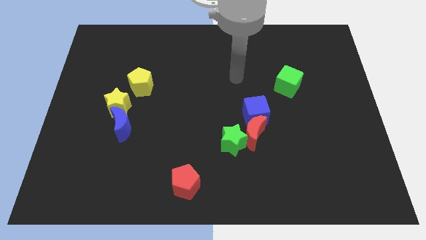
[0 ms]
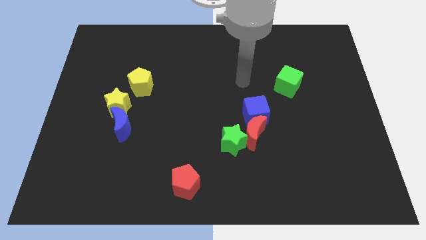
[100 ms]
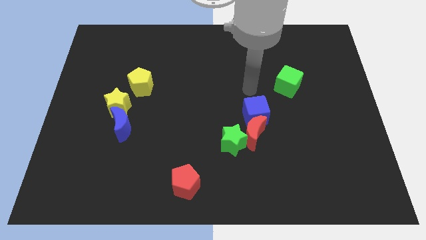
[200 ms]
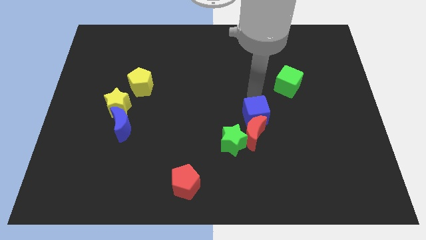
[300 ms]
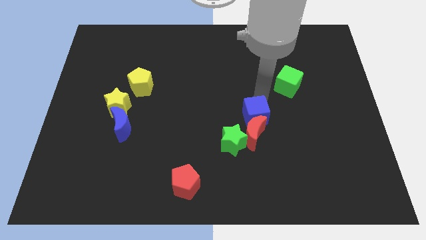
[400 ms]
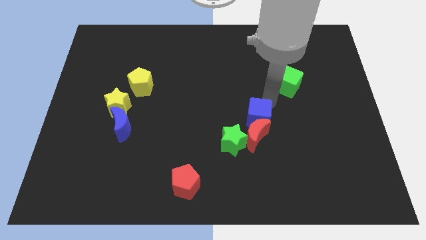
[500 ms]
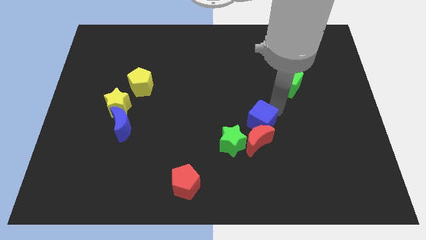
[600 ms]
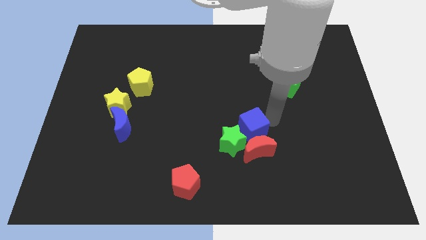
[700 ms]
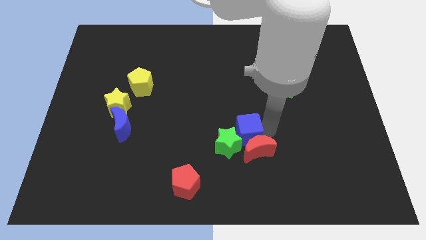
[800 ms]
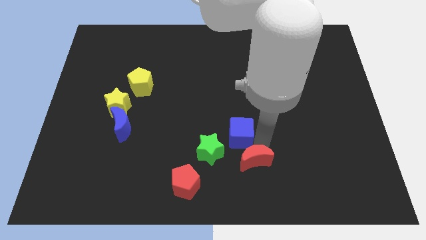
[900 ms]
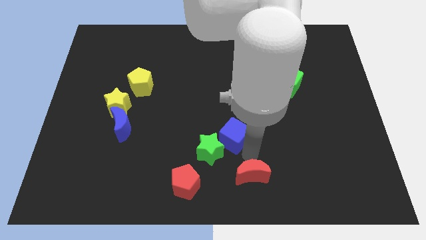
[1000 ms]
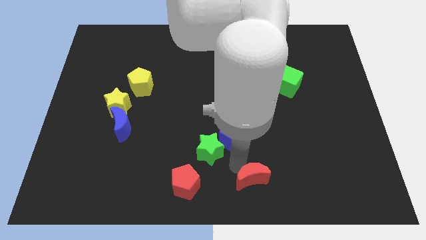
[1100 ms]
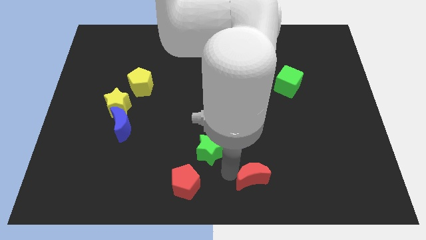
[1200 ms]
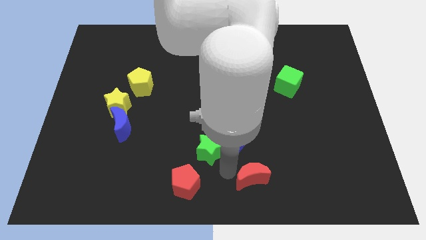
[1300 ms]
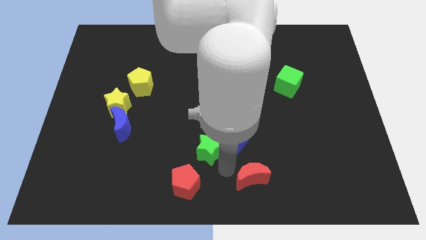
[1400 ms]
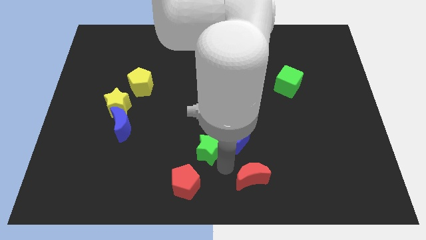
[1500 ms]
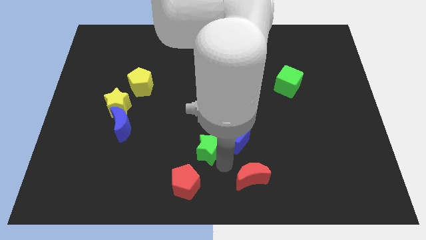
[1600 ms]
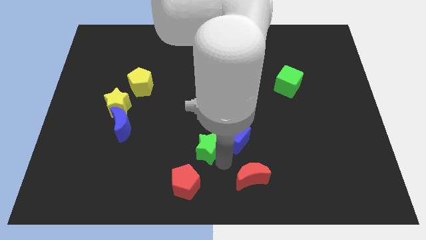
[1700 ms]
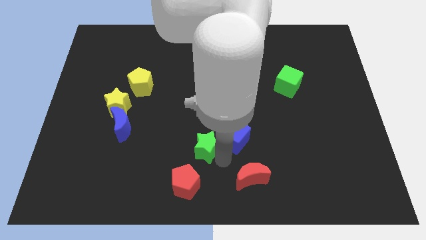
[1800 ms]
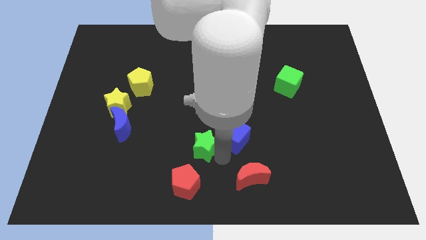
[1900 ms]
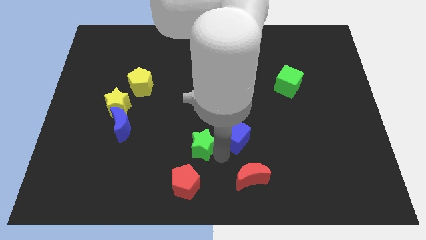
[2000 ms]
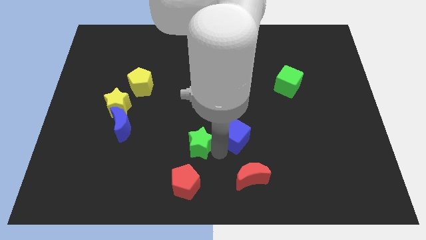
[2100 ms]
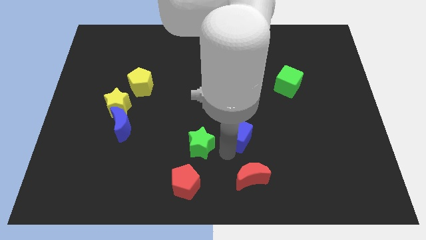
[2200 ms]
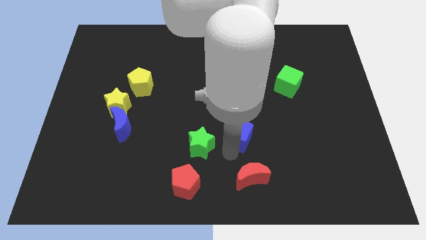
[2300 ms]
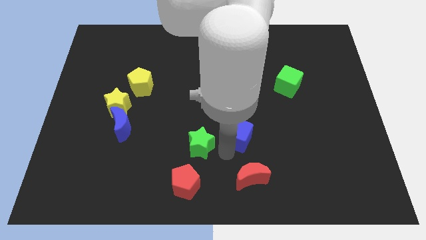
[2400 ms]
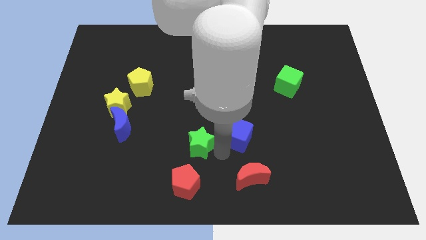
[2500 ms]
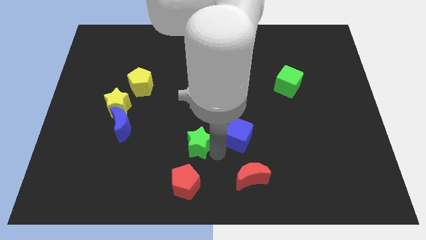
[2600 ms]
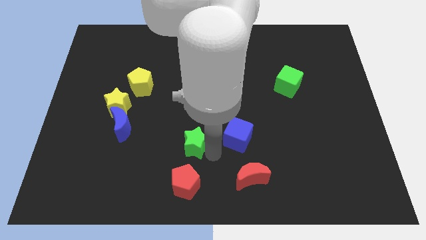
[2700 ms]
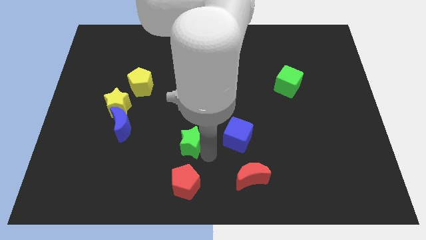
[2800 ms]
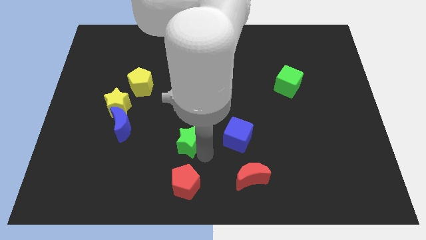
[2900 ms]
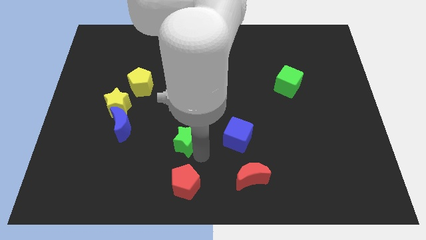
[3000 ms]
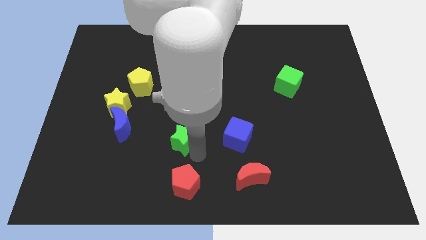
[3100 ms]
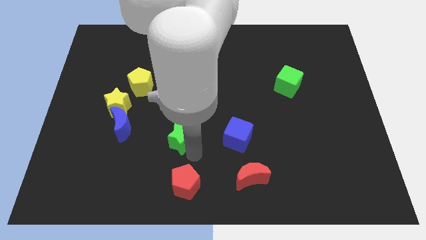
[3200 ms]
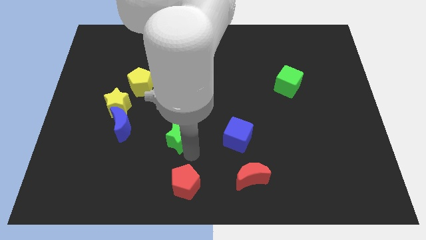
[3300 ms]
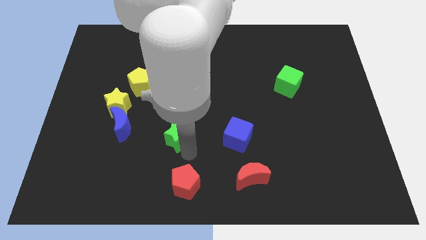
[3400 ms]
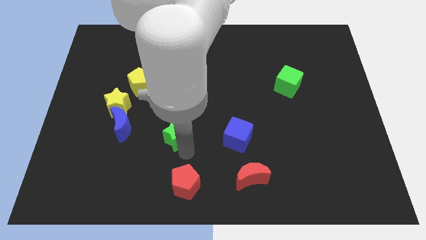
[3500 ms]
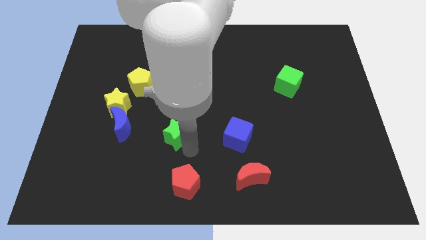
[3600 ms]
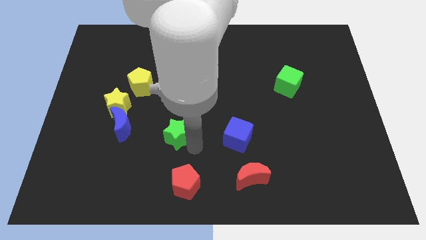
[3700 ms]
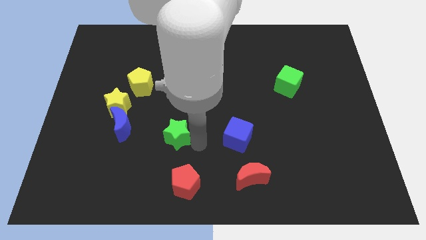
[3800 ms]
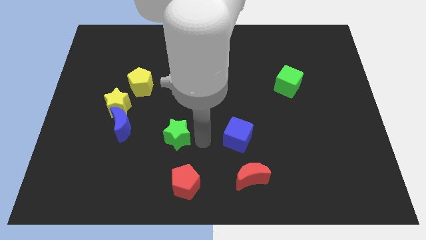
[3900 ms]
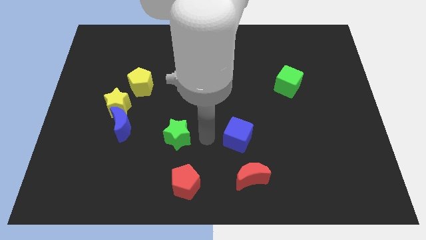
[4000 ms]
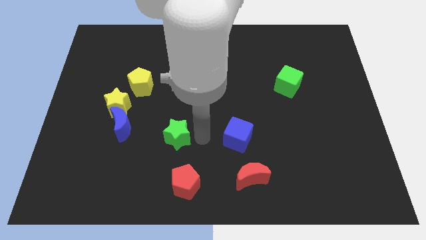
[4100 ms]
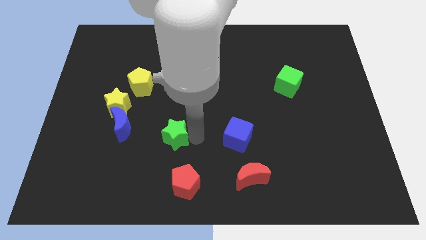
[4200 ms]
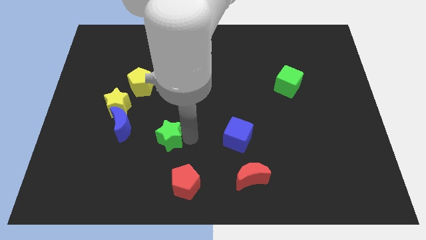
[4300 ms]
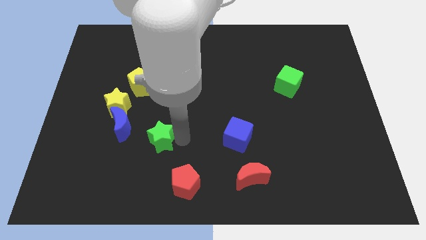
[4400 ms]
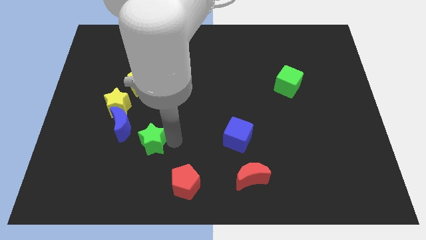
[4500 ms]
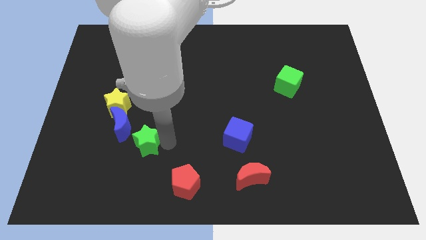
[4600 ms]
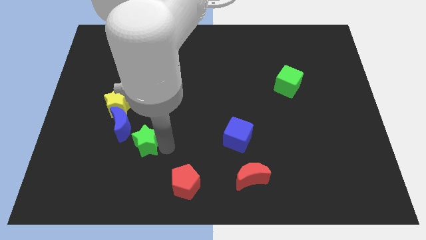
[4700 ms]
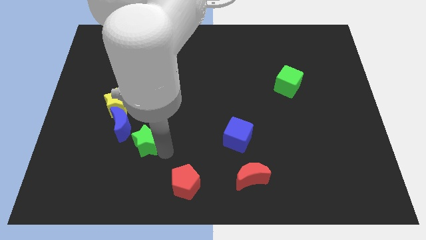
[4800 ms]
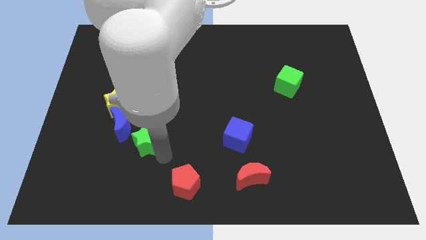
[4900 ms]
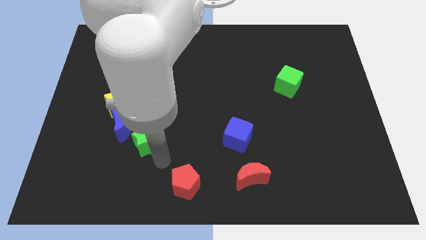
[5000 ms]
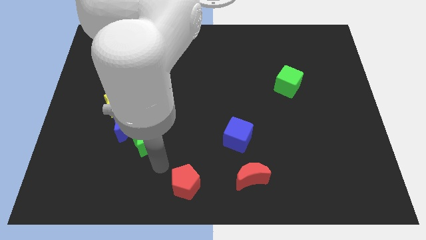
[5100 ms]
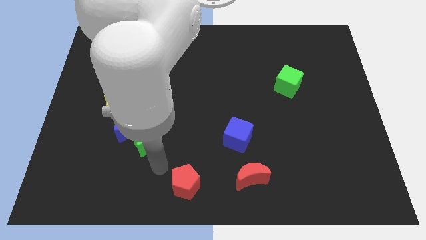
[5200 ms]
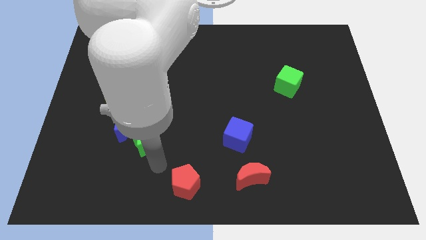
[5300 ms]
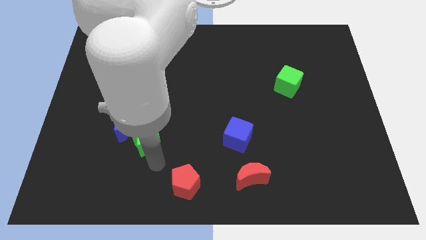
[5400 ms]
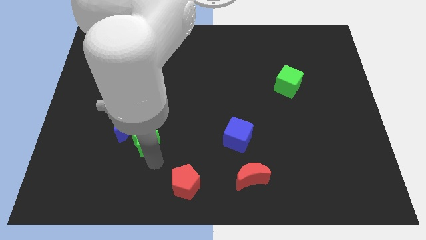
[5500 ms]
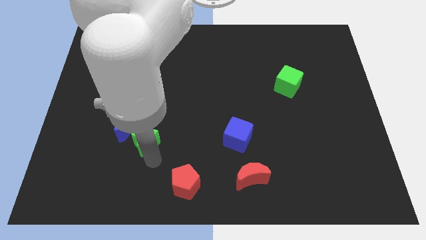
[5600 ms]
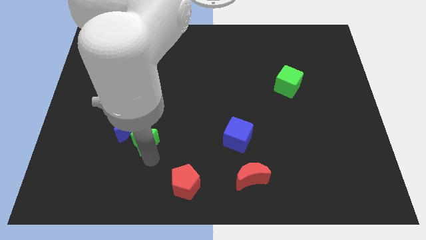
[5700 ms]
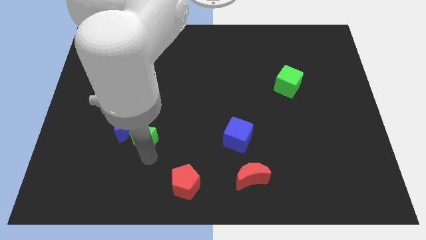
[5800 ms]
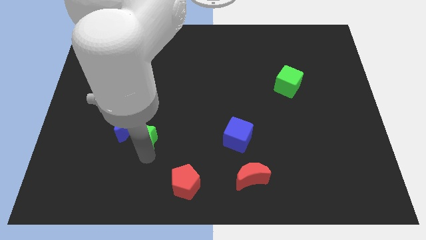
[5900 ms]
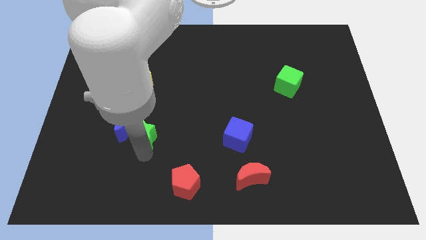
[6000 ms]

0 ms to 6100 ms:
push the green star to the blue moon

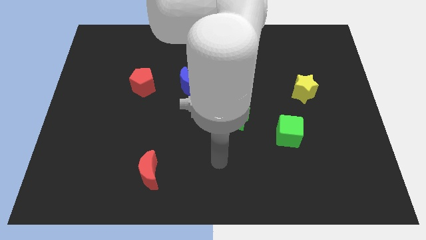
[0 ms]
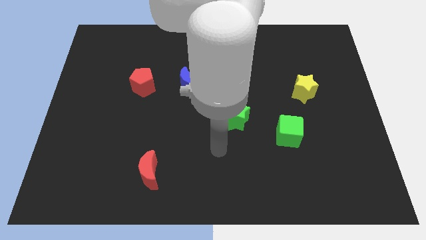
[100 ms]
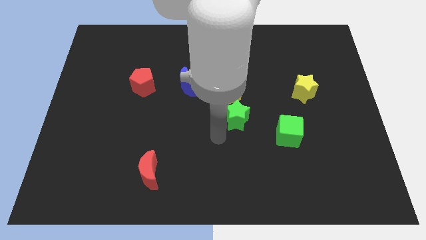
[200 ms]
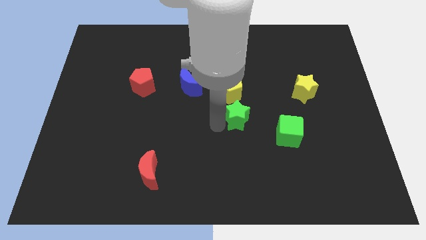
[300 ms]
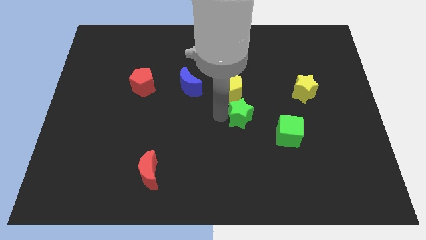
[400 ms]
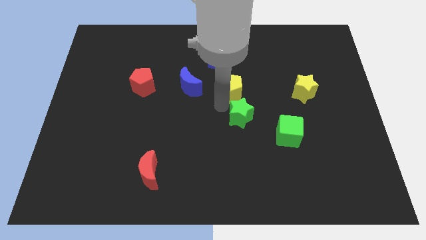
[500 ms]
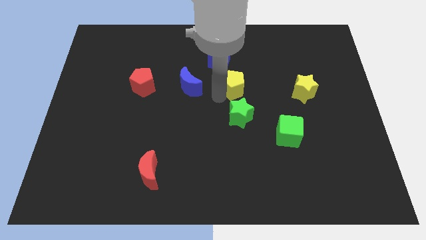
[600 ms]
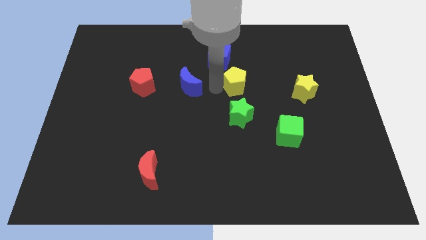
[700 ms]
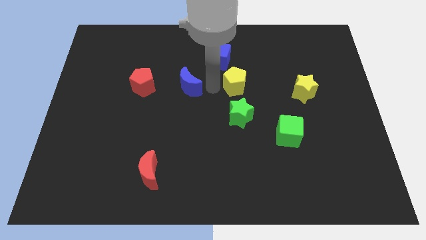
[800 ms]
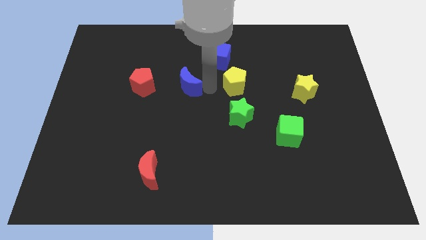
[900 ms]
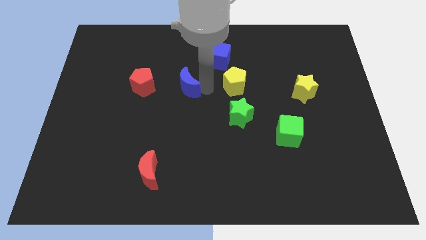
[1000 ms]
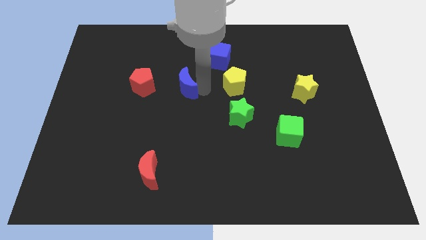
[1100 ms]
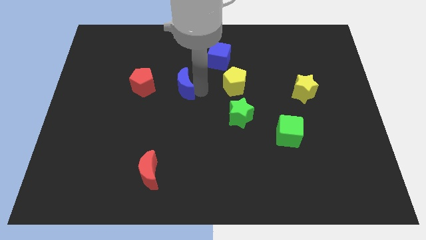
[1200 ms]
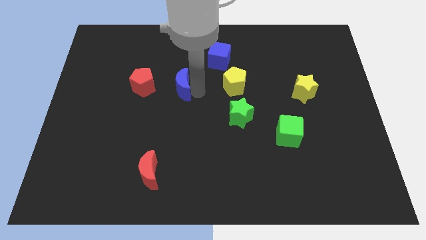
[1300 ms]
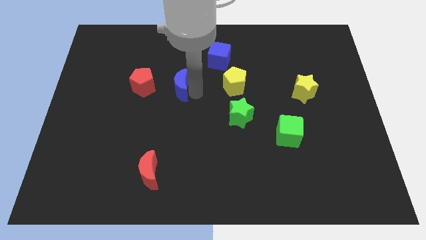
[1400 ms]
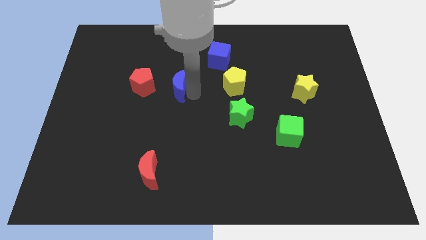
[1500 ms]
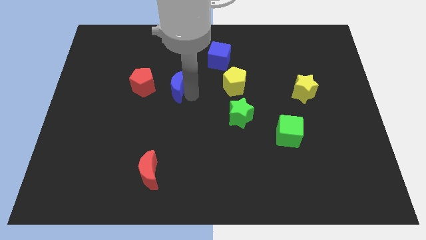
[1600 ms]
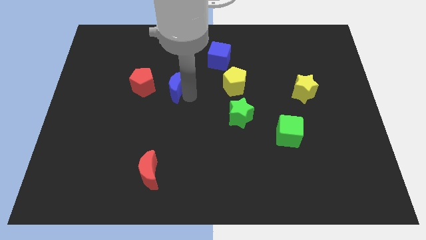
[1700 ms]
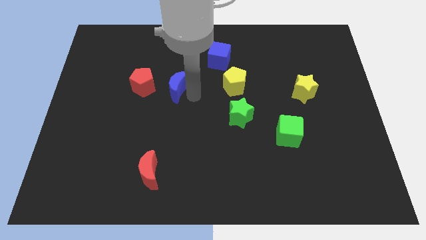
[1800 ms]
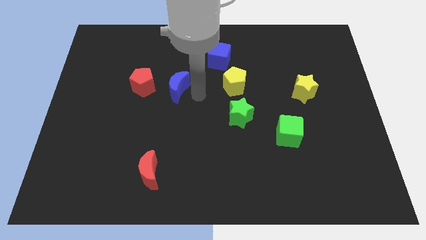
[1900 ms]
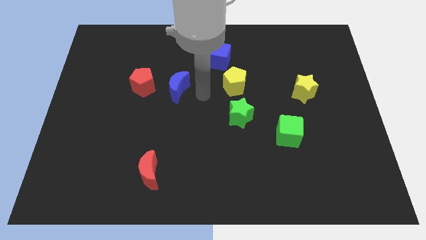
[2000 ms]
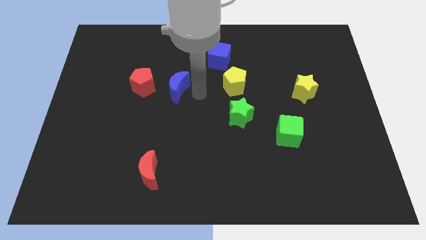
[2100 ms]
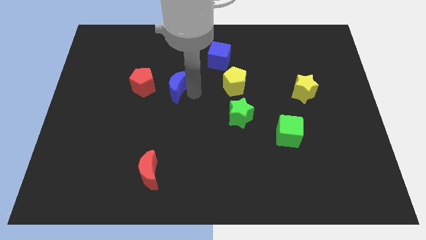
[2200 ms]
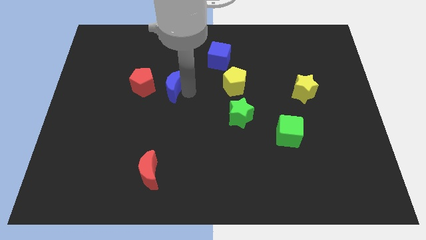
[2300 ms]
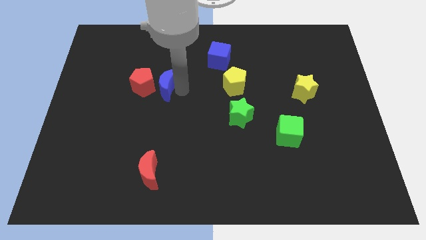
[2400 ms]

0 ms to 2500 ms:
push the blue moon next to the red pentagon
